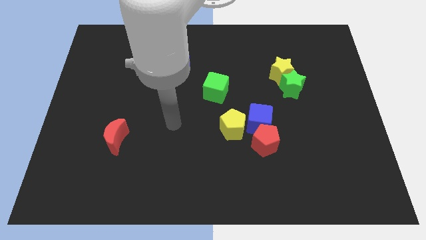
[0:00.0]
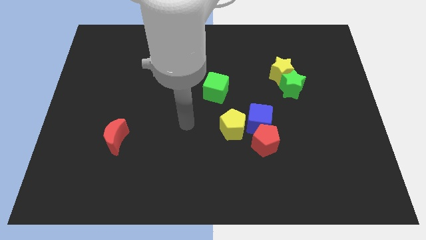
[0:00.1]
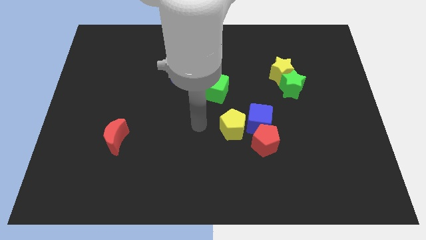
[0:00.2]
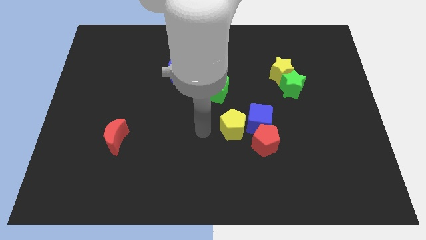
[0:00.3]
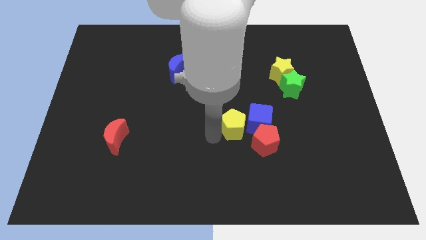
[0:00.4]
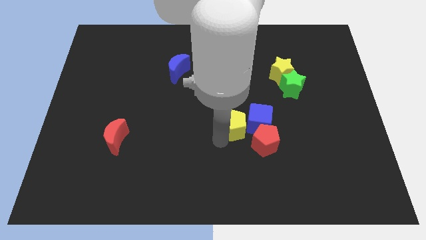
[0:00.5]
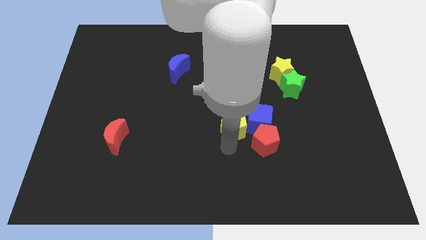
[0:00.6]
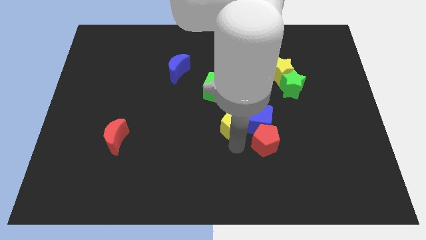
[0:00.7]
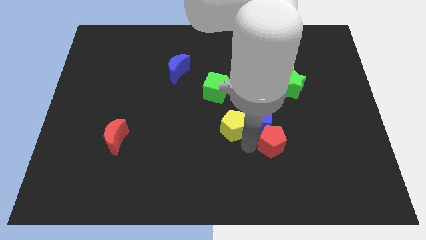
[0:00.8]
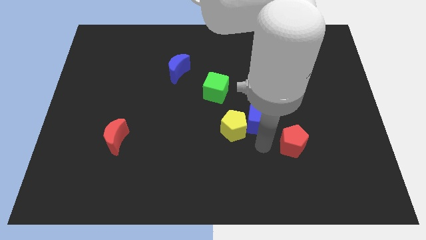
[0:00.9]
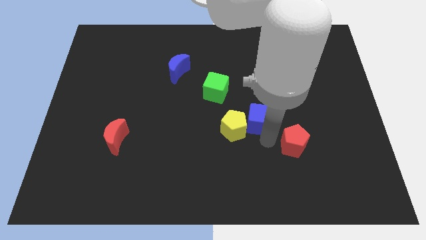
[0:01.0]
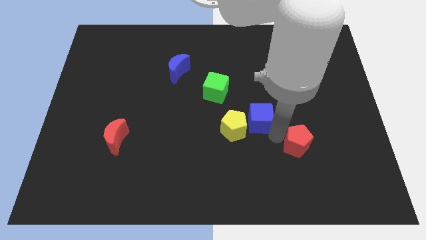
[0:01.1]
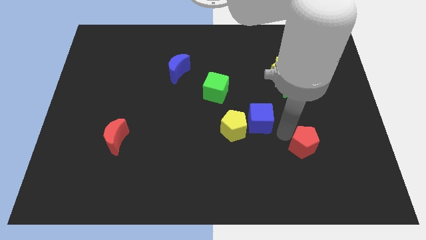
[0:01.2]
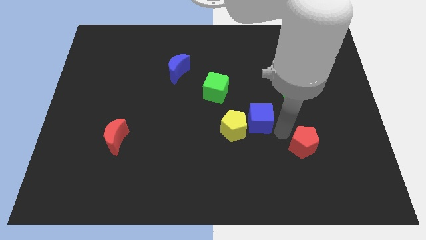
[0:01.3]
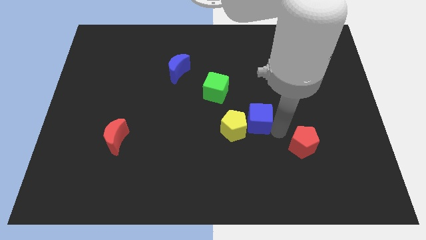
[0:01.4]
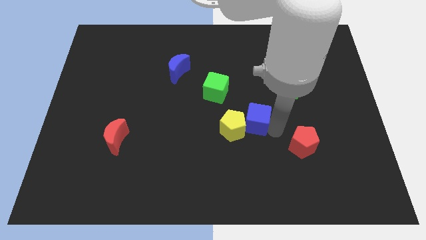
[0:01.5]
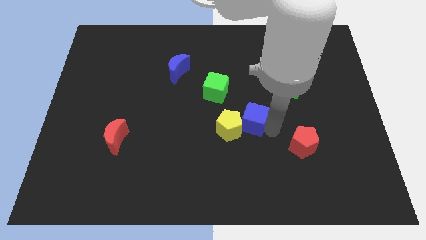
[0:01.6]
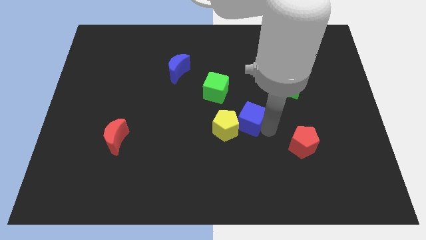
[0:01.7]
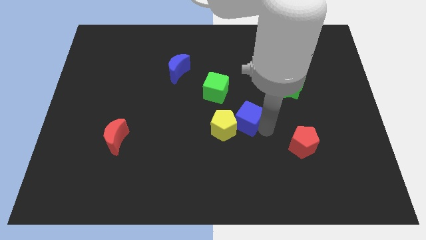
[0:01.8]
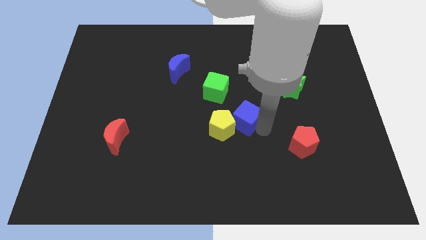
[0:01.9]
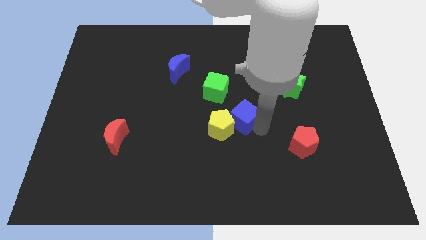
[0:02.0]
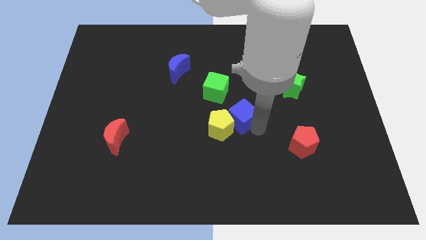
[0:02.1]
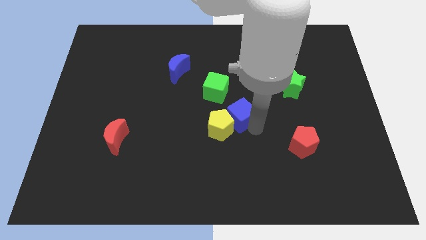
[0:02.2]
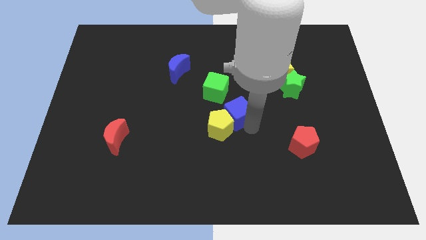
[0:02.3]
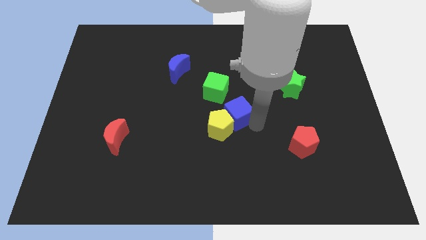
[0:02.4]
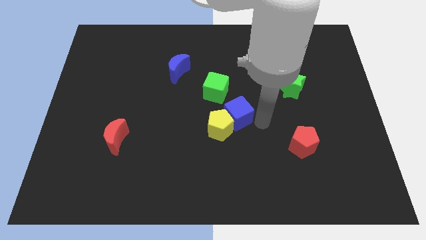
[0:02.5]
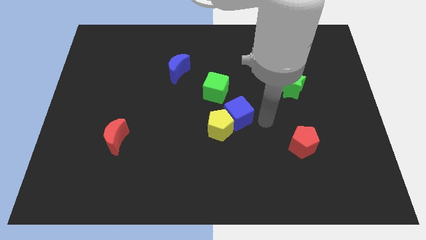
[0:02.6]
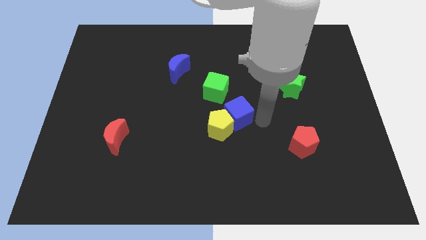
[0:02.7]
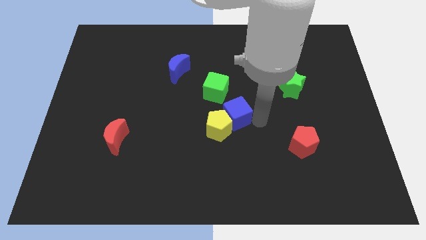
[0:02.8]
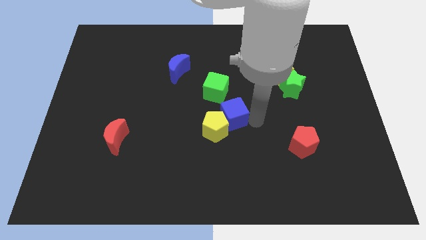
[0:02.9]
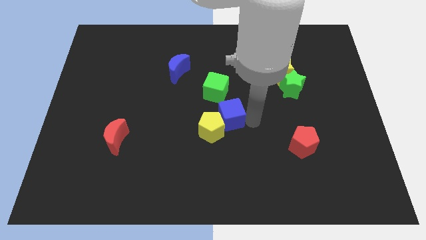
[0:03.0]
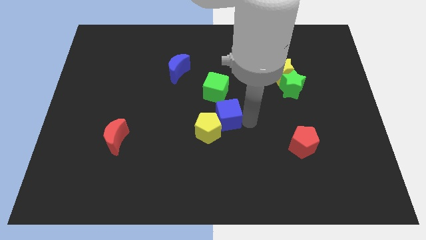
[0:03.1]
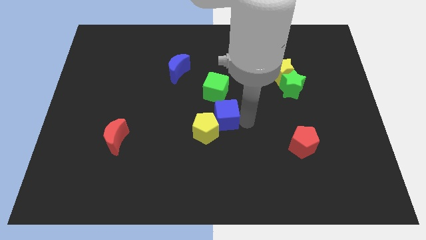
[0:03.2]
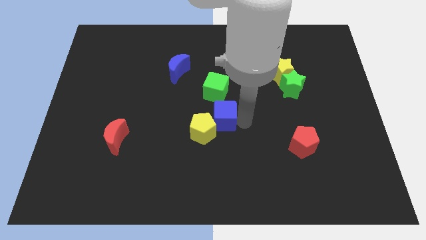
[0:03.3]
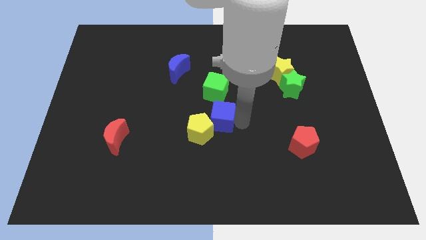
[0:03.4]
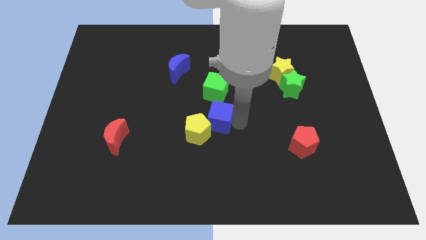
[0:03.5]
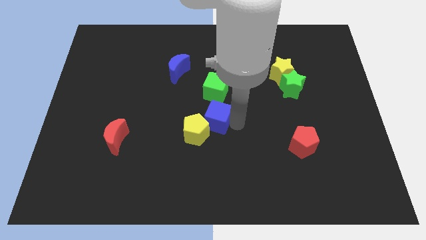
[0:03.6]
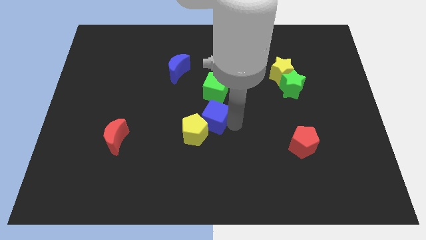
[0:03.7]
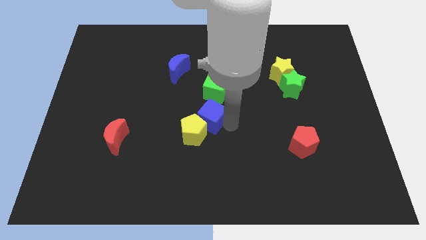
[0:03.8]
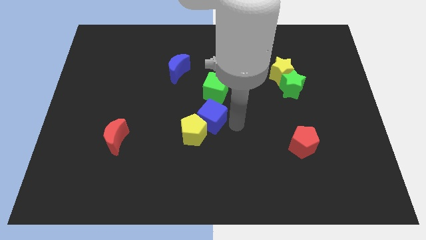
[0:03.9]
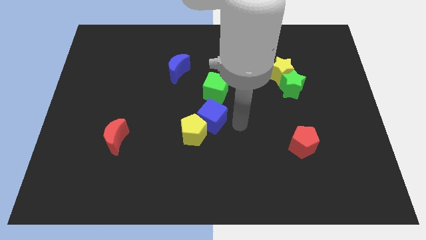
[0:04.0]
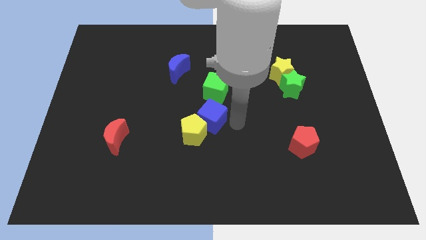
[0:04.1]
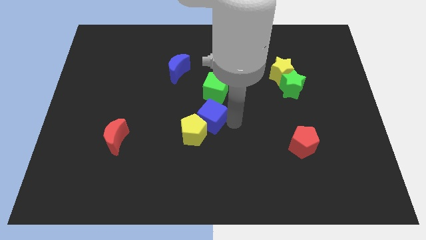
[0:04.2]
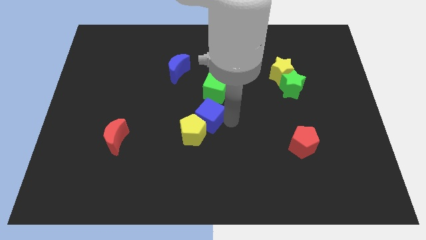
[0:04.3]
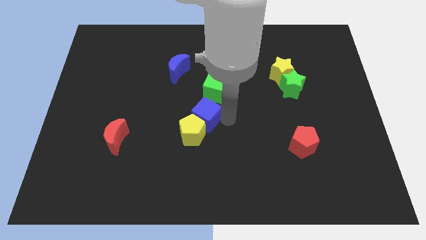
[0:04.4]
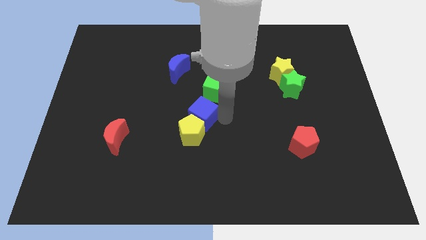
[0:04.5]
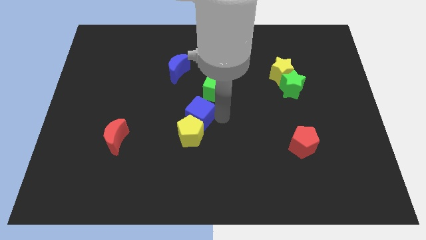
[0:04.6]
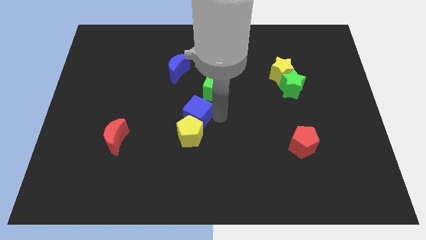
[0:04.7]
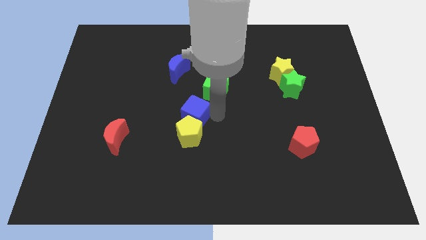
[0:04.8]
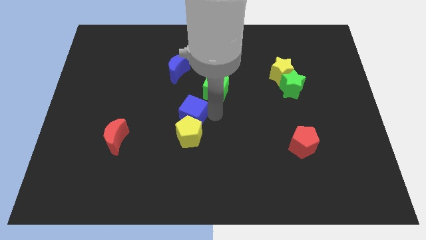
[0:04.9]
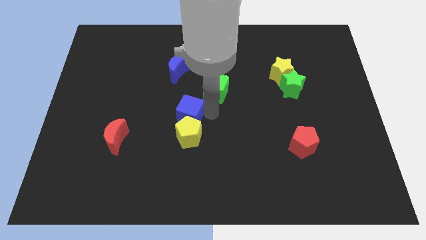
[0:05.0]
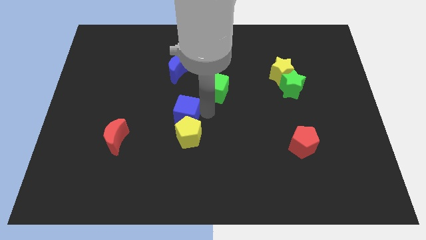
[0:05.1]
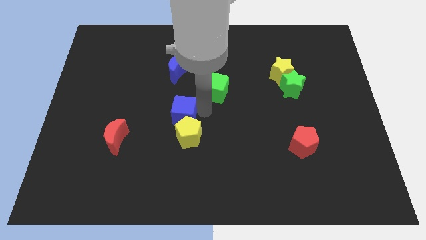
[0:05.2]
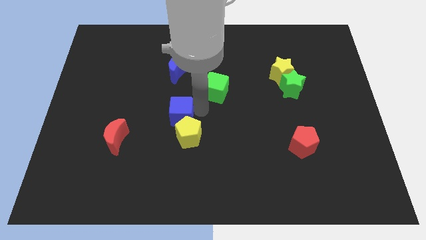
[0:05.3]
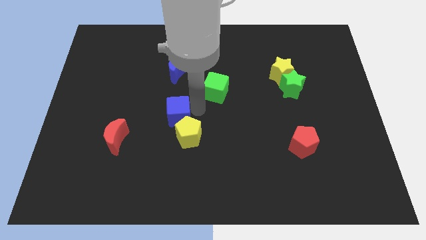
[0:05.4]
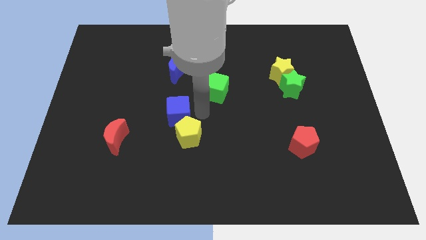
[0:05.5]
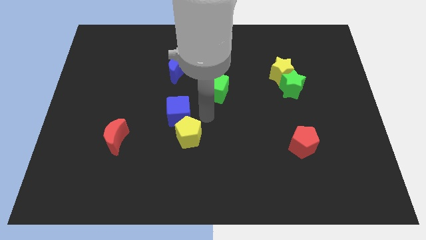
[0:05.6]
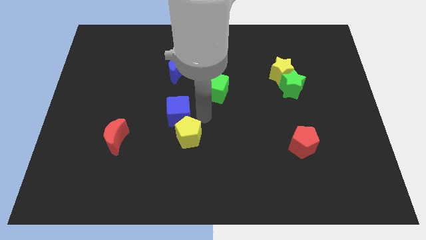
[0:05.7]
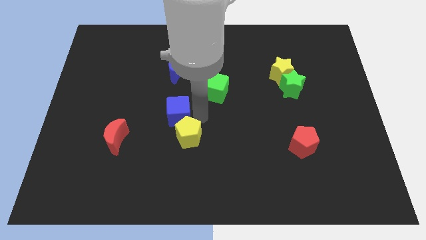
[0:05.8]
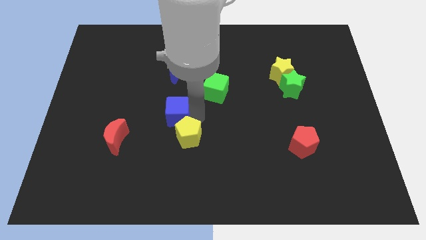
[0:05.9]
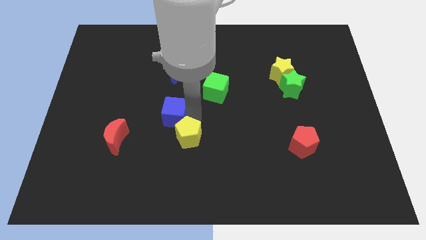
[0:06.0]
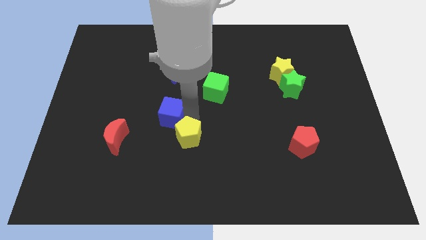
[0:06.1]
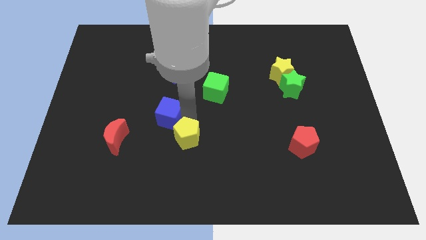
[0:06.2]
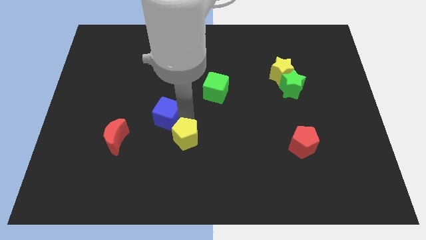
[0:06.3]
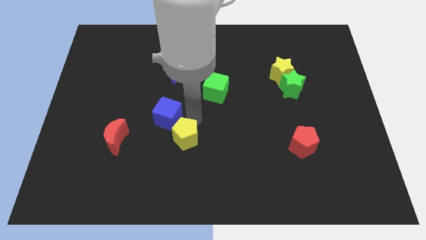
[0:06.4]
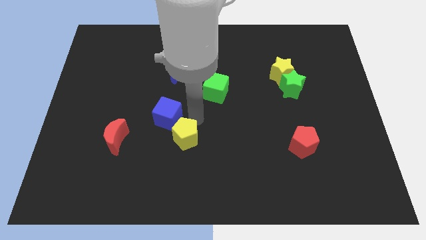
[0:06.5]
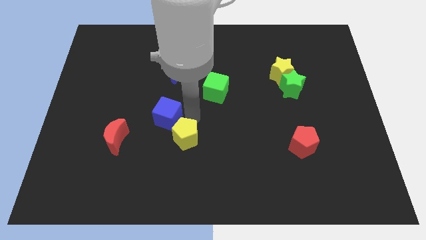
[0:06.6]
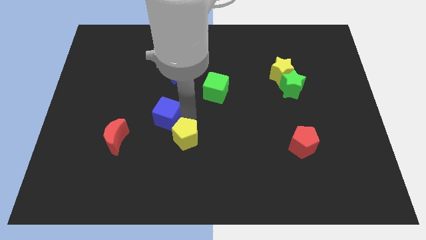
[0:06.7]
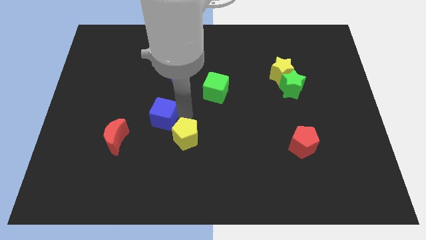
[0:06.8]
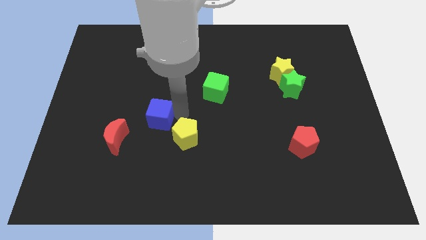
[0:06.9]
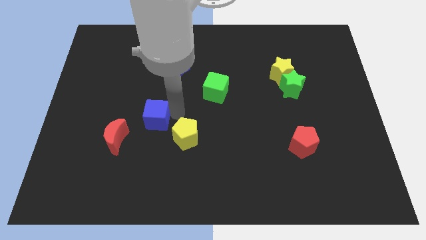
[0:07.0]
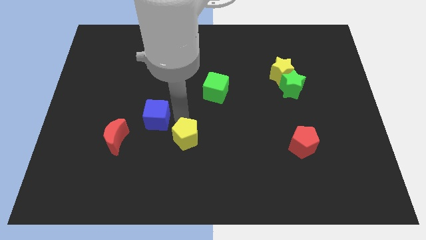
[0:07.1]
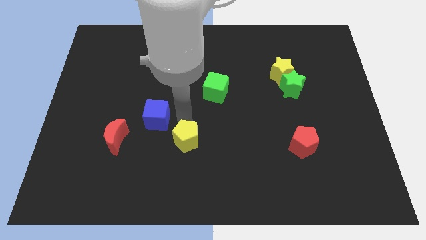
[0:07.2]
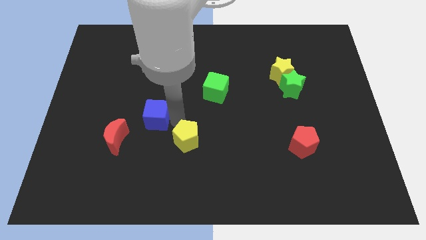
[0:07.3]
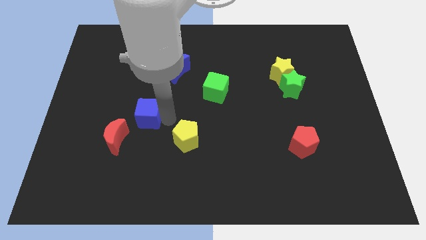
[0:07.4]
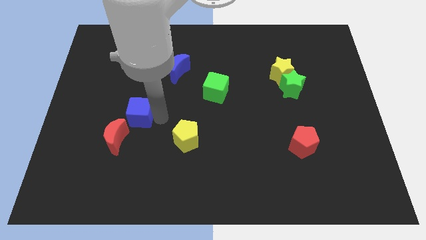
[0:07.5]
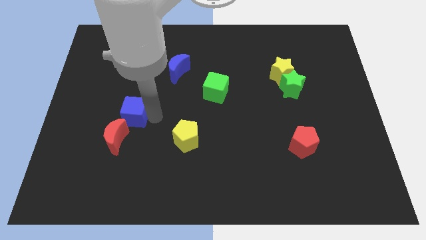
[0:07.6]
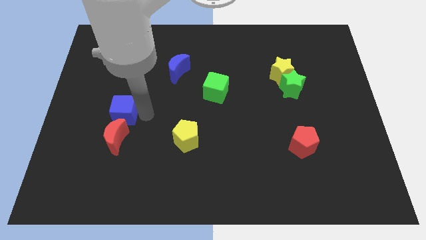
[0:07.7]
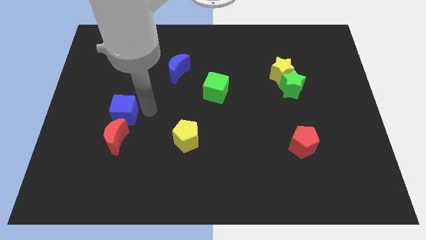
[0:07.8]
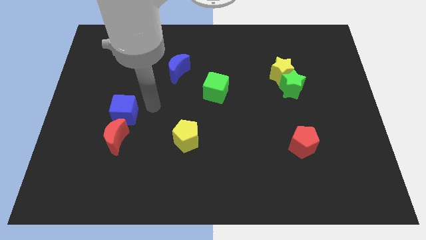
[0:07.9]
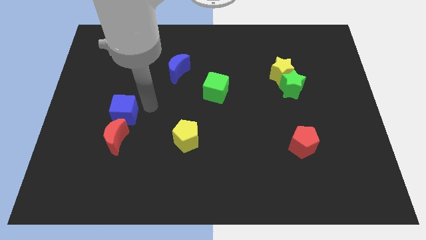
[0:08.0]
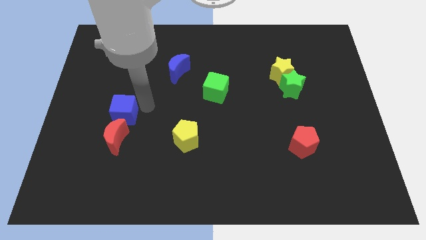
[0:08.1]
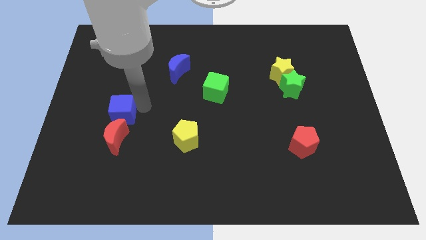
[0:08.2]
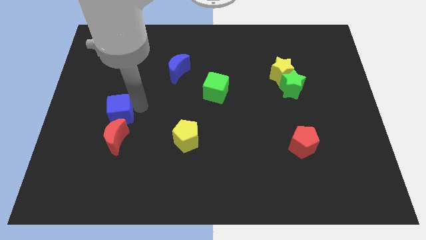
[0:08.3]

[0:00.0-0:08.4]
put the blue cube diagonally up and to the left of the red moon
